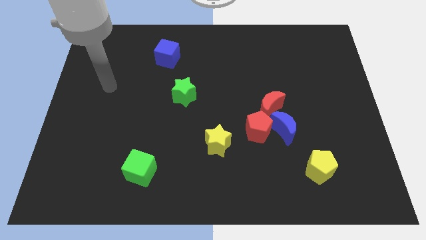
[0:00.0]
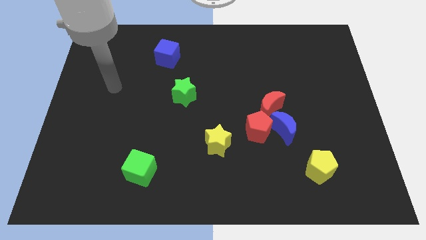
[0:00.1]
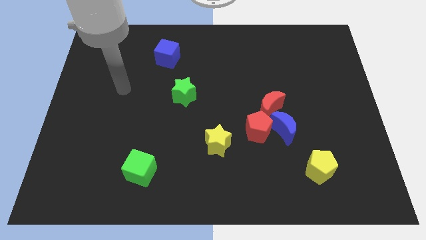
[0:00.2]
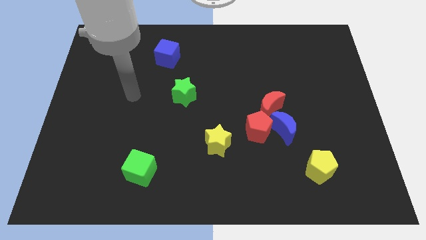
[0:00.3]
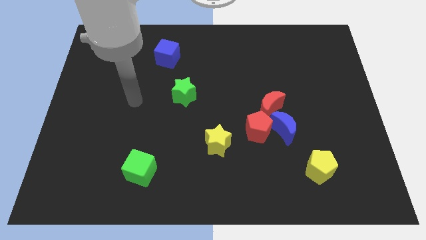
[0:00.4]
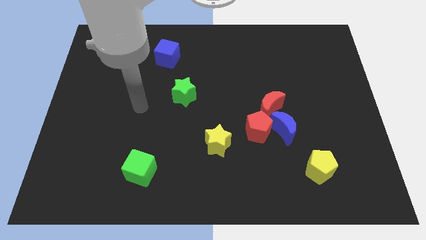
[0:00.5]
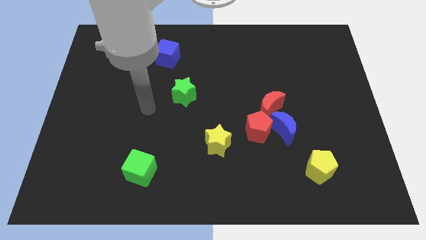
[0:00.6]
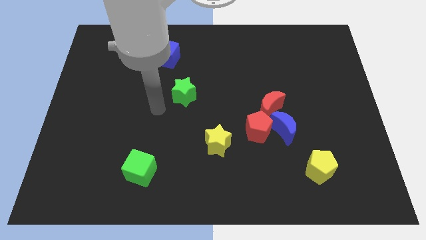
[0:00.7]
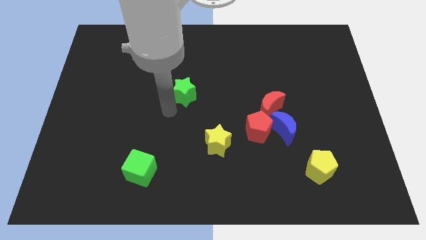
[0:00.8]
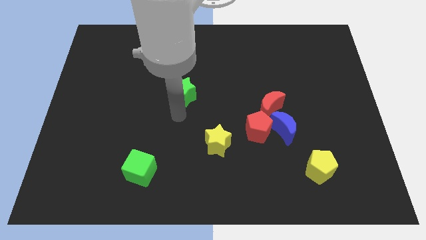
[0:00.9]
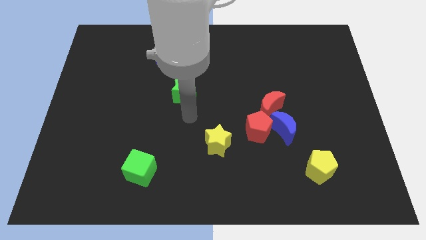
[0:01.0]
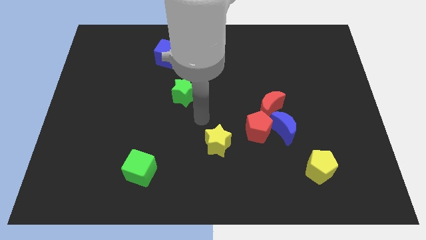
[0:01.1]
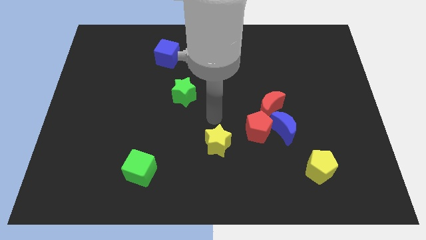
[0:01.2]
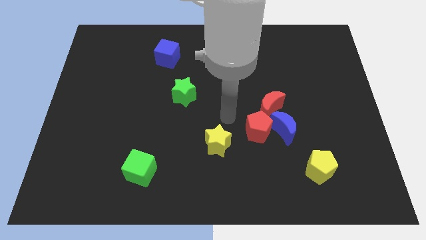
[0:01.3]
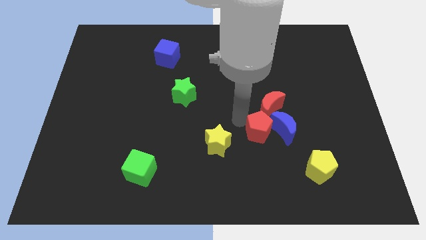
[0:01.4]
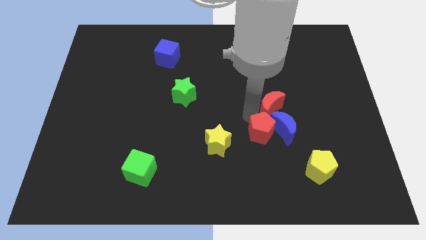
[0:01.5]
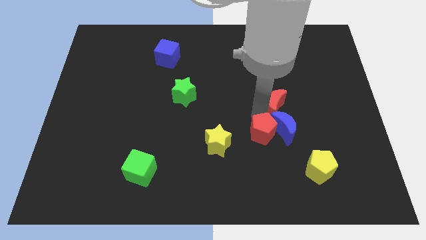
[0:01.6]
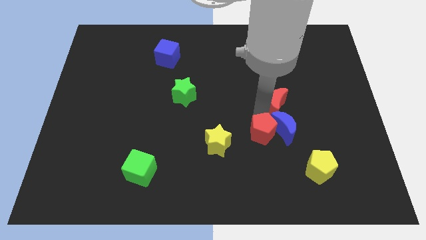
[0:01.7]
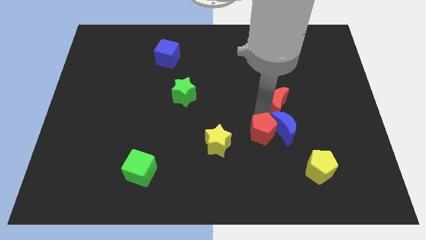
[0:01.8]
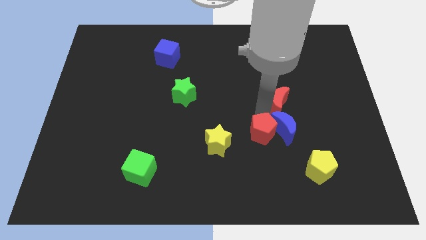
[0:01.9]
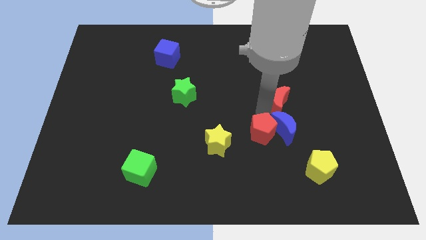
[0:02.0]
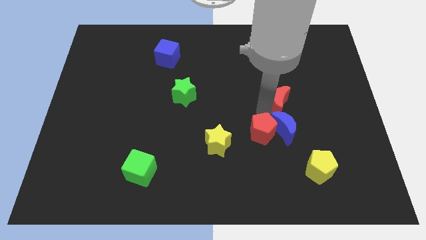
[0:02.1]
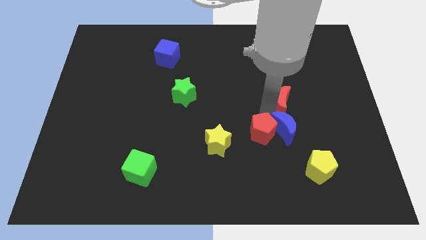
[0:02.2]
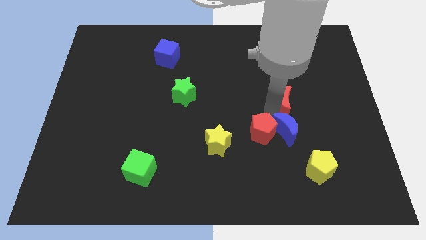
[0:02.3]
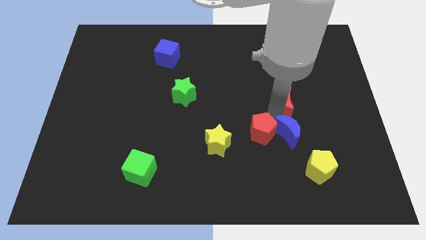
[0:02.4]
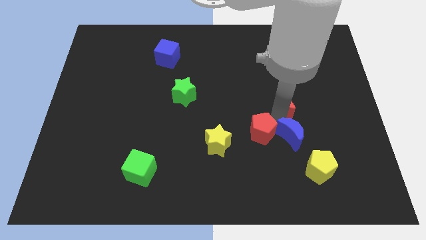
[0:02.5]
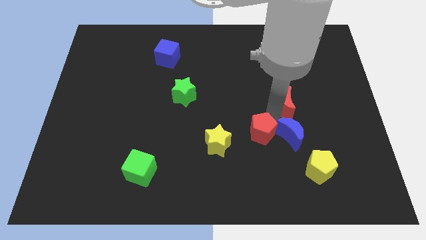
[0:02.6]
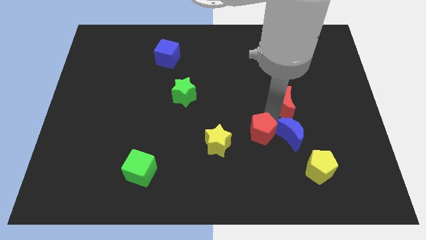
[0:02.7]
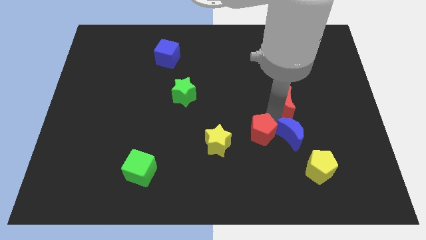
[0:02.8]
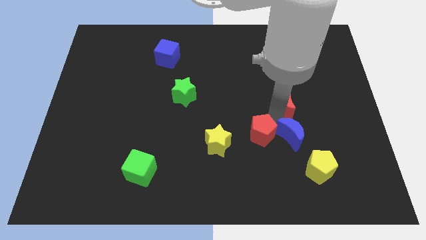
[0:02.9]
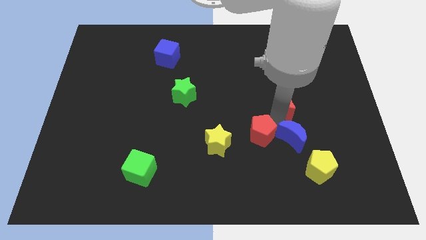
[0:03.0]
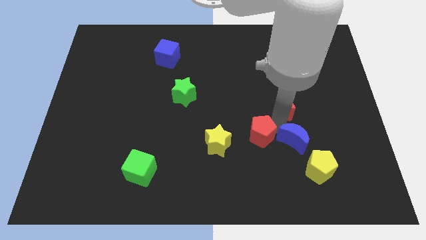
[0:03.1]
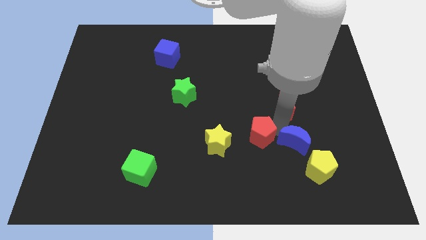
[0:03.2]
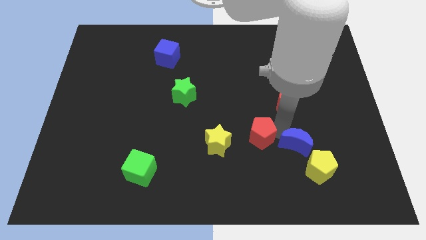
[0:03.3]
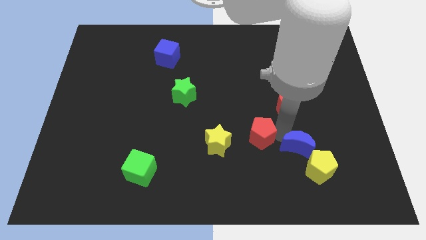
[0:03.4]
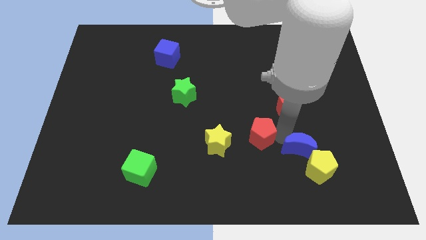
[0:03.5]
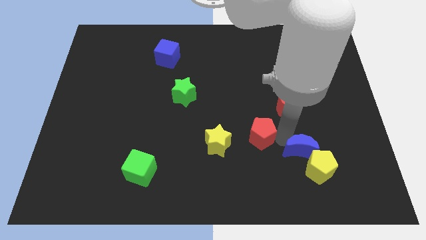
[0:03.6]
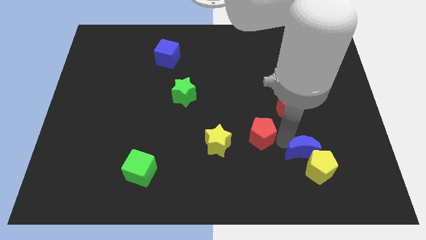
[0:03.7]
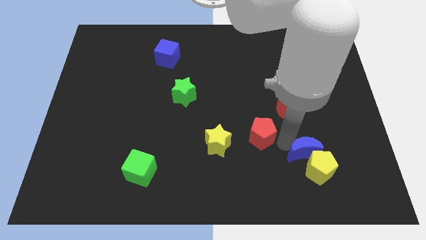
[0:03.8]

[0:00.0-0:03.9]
move the blue moon away from the red pentagon and red moon

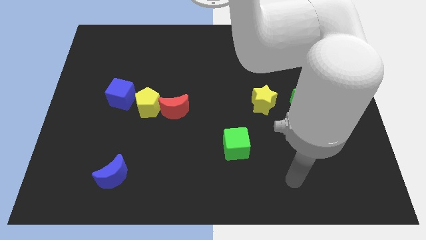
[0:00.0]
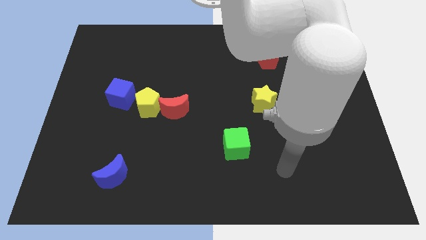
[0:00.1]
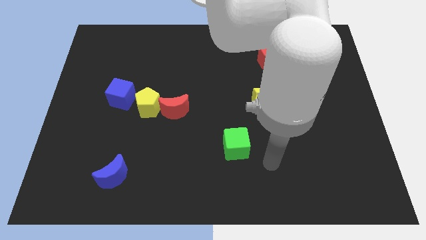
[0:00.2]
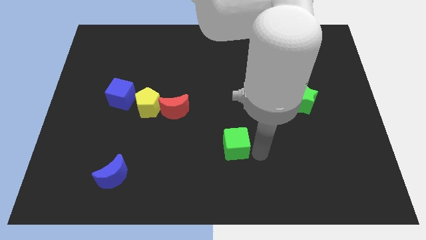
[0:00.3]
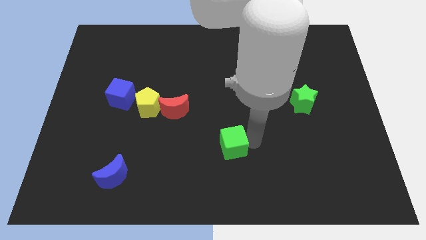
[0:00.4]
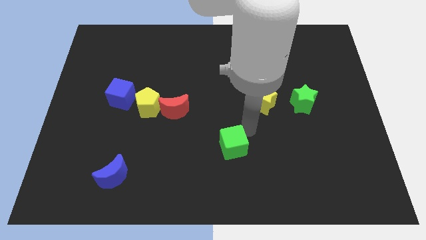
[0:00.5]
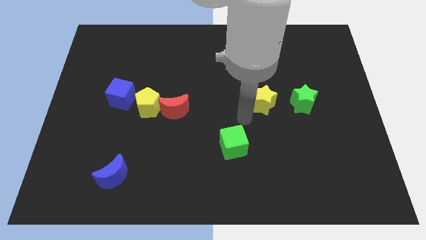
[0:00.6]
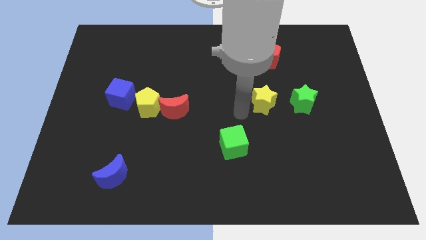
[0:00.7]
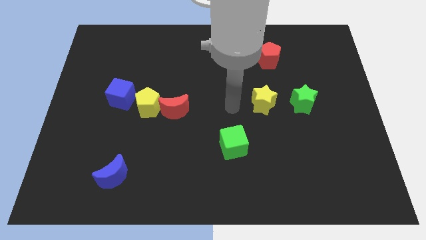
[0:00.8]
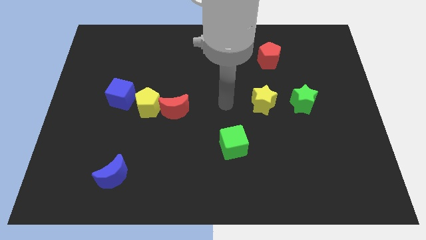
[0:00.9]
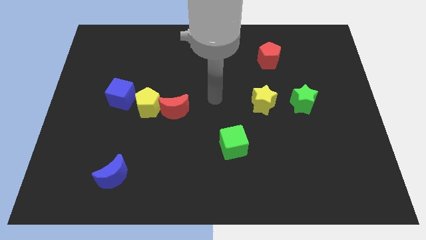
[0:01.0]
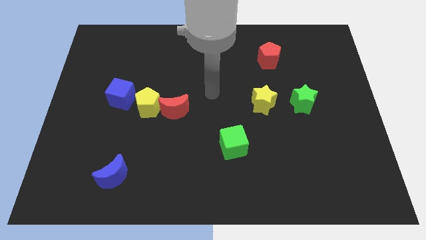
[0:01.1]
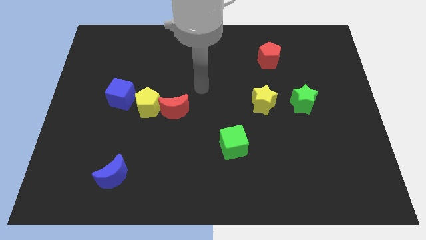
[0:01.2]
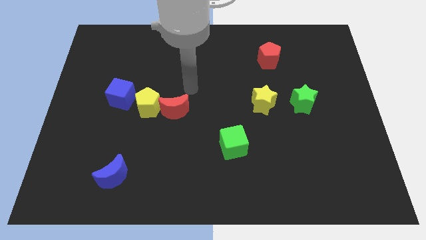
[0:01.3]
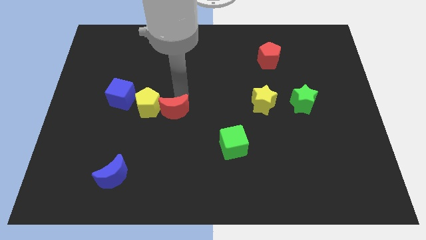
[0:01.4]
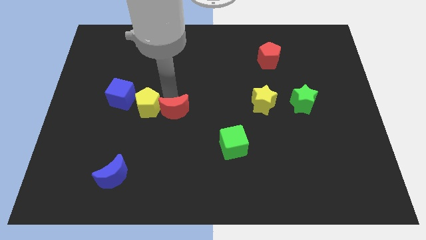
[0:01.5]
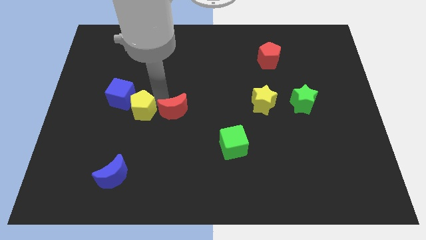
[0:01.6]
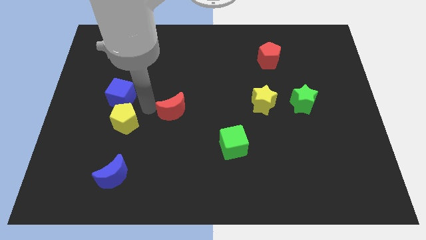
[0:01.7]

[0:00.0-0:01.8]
pull the red moon apart from the yellow pentagon

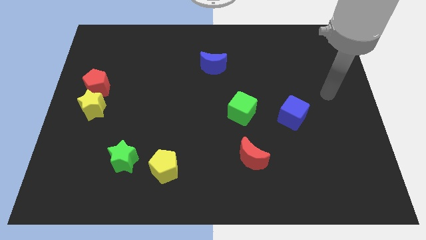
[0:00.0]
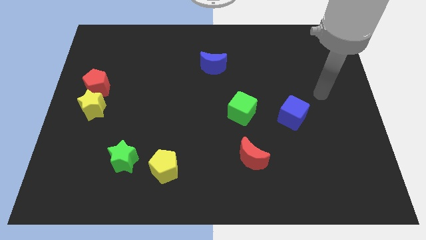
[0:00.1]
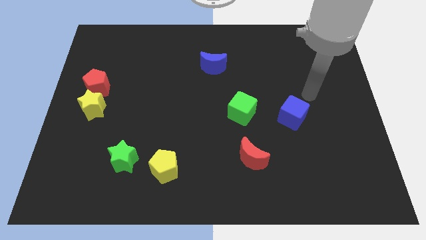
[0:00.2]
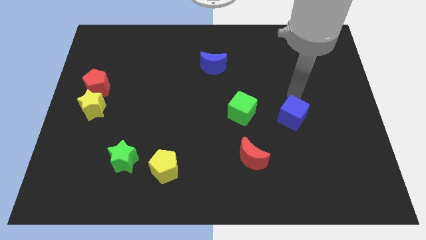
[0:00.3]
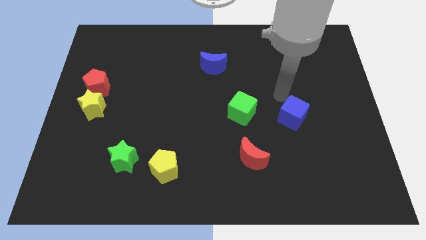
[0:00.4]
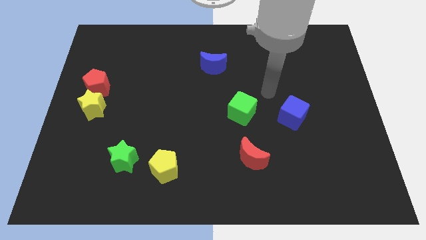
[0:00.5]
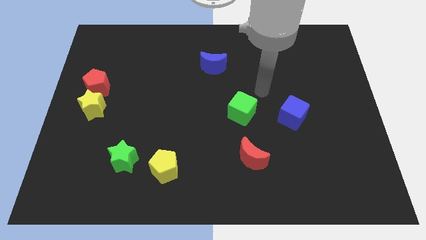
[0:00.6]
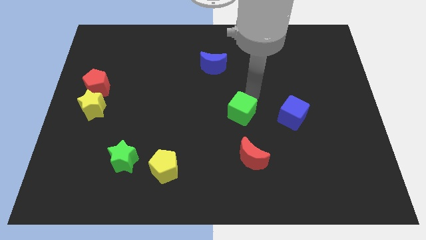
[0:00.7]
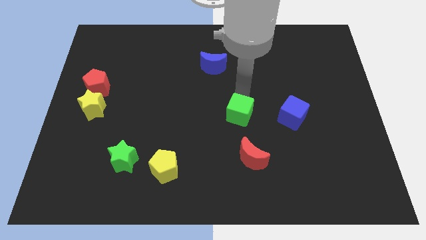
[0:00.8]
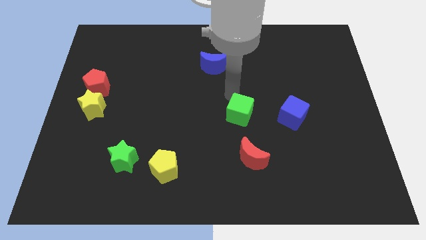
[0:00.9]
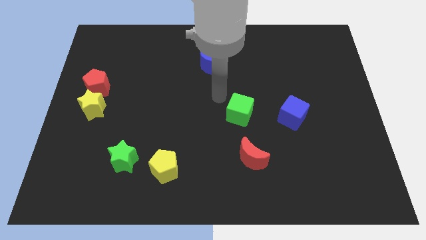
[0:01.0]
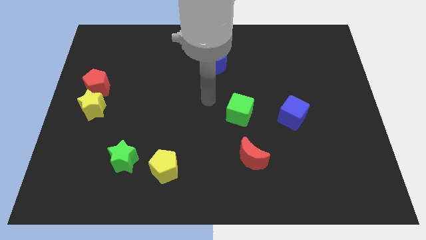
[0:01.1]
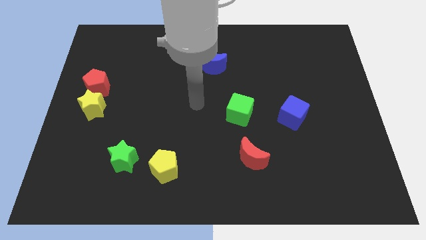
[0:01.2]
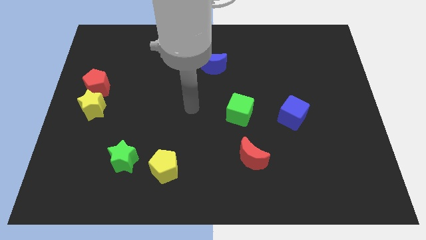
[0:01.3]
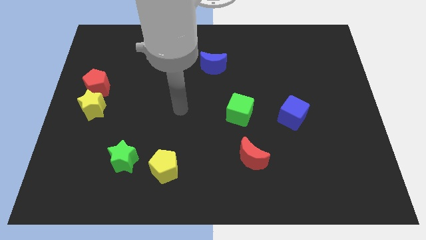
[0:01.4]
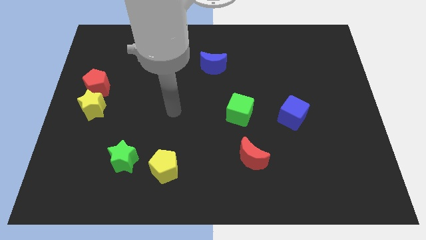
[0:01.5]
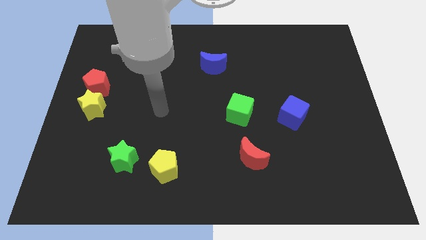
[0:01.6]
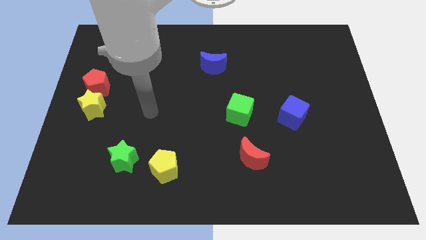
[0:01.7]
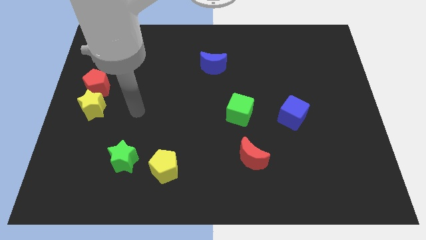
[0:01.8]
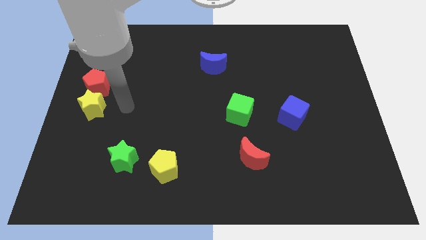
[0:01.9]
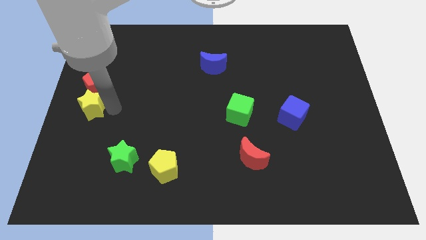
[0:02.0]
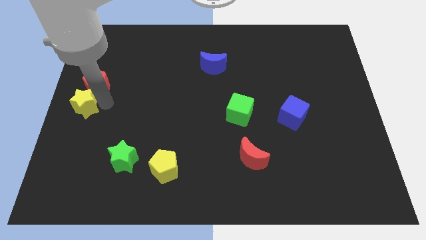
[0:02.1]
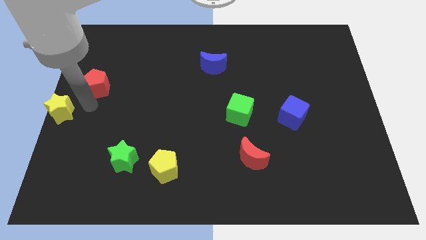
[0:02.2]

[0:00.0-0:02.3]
move the red pentagon away from the yellow star

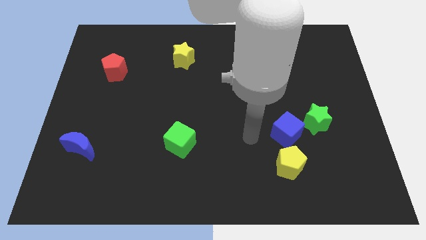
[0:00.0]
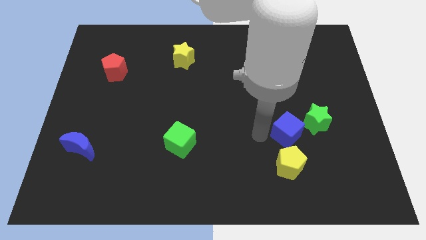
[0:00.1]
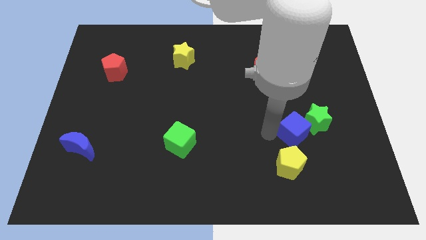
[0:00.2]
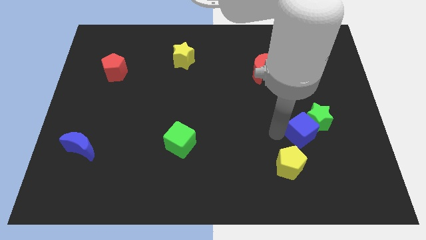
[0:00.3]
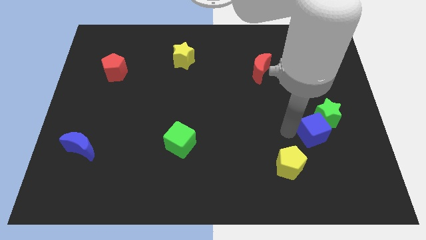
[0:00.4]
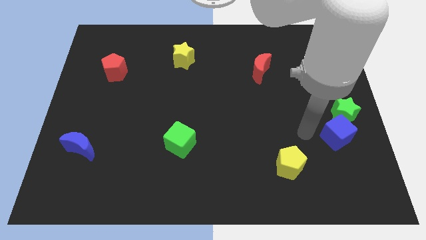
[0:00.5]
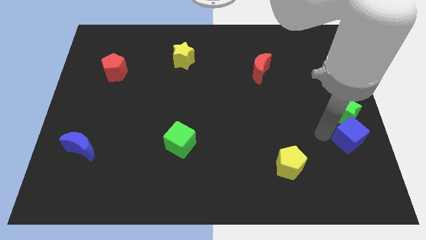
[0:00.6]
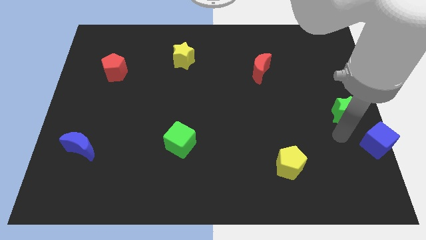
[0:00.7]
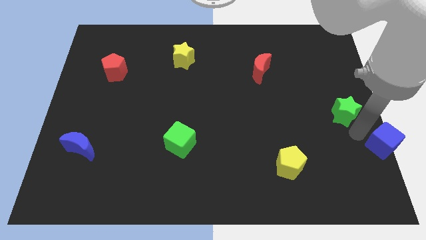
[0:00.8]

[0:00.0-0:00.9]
move the green star away from the blue cube

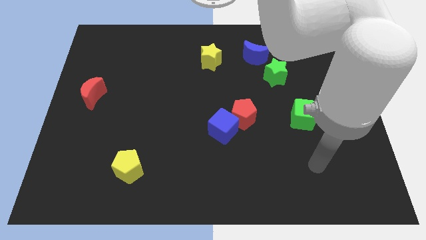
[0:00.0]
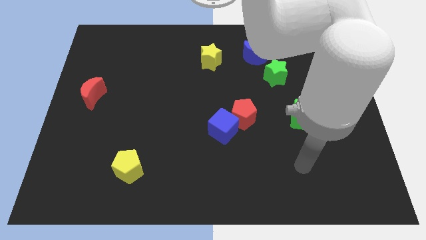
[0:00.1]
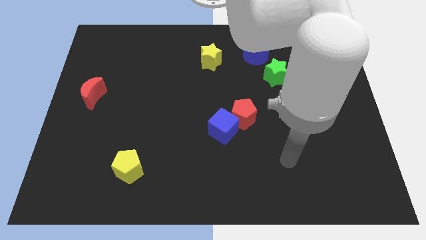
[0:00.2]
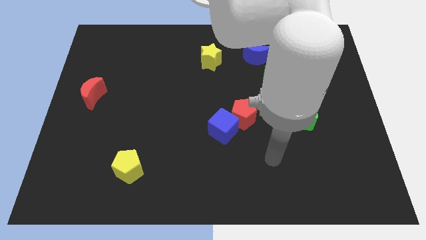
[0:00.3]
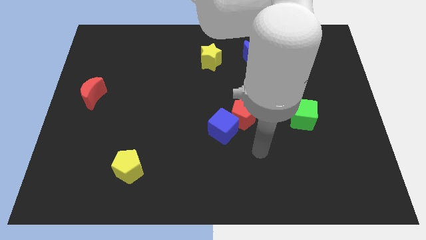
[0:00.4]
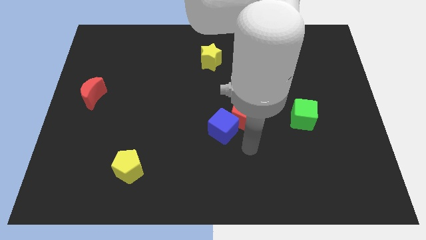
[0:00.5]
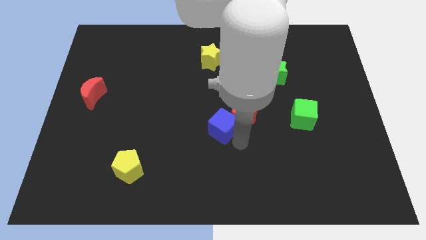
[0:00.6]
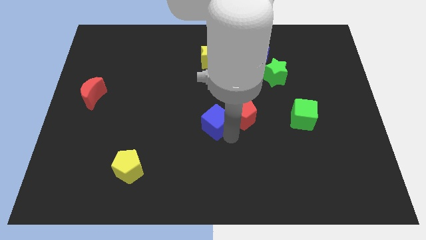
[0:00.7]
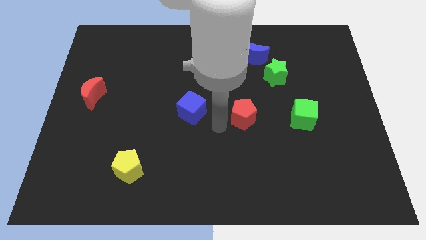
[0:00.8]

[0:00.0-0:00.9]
pull the red pentagon apart from the blue cube
